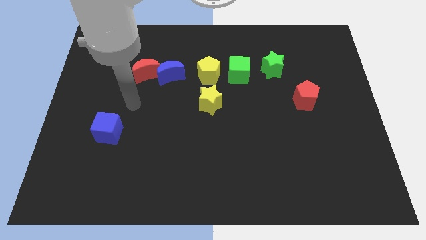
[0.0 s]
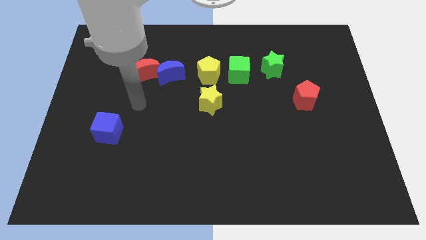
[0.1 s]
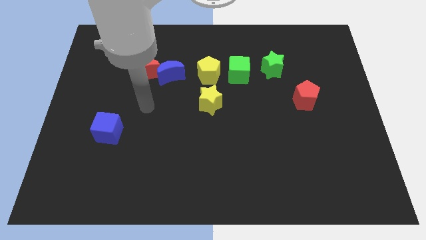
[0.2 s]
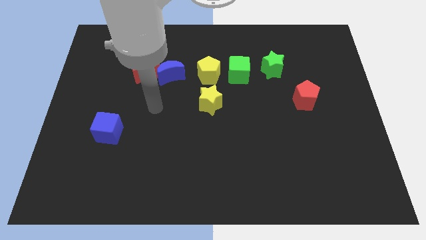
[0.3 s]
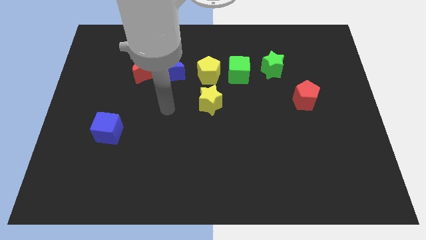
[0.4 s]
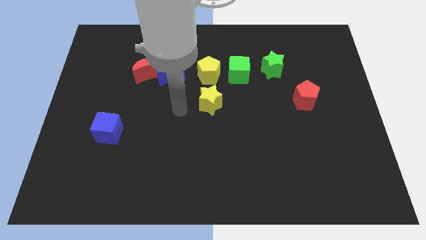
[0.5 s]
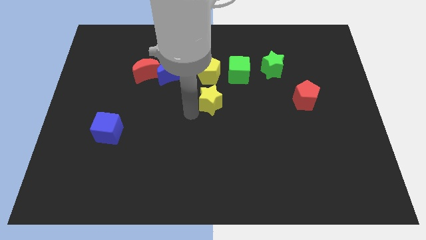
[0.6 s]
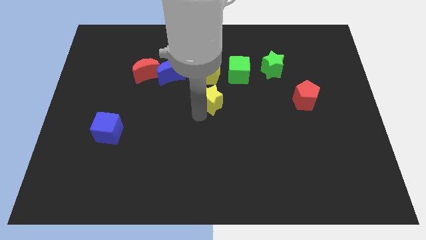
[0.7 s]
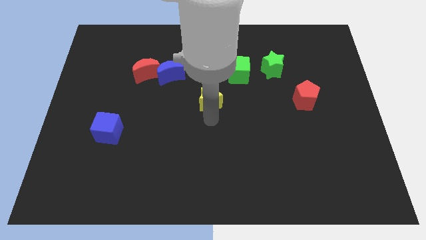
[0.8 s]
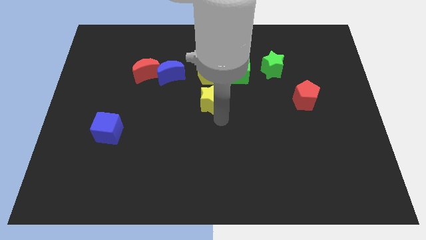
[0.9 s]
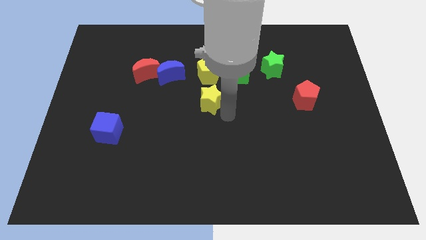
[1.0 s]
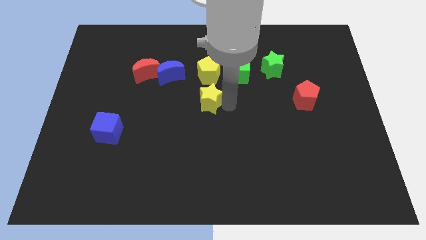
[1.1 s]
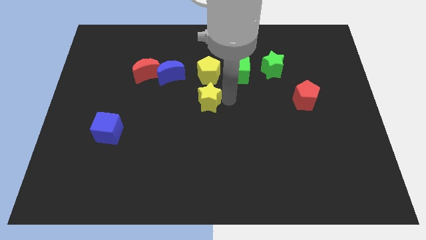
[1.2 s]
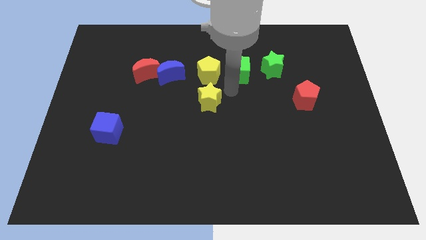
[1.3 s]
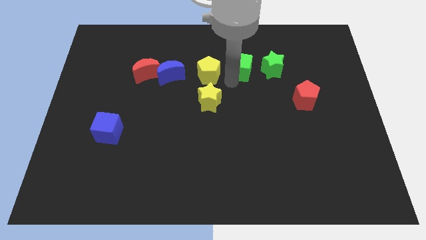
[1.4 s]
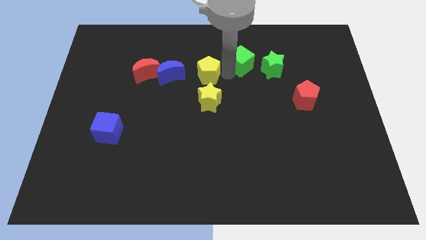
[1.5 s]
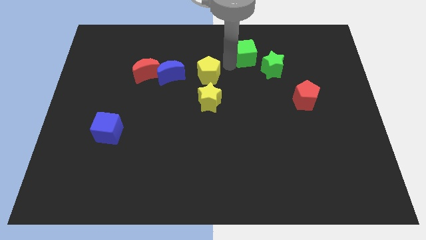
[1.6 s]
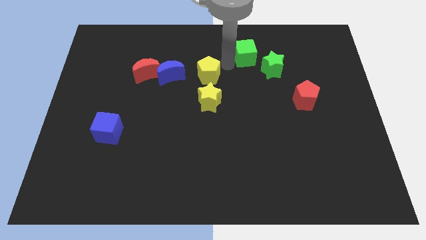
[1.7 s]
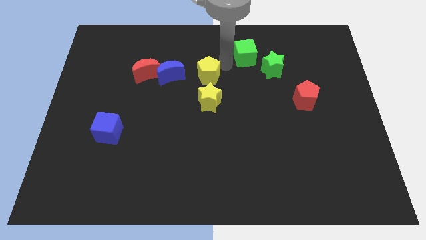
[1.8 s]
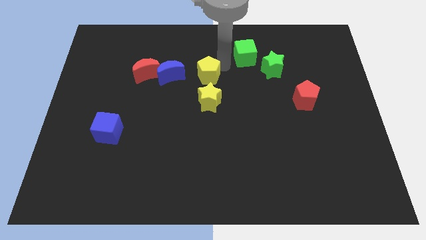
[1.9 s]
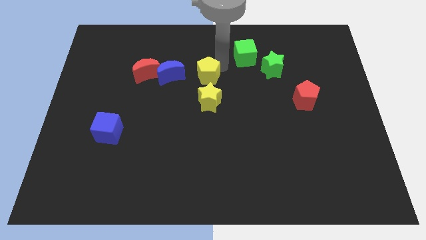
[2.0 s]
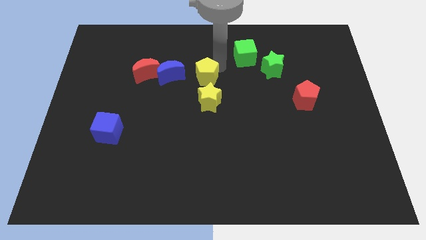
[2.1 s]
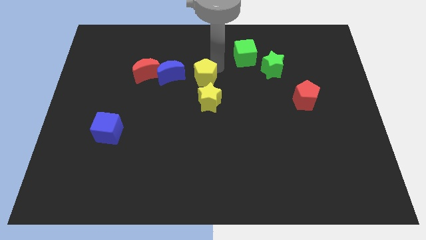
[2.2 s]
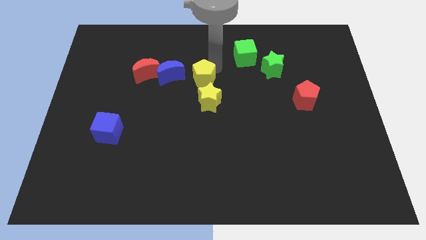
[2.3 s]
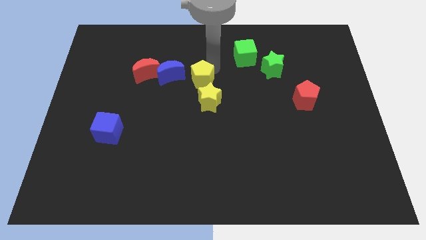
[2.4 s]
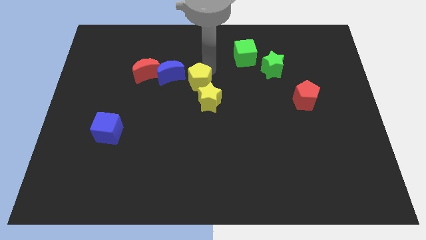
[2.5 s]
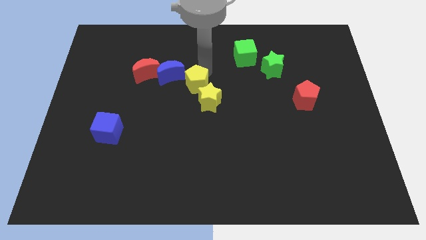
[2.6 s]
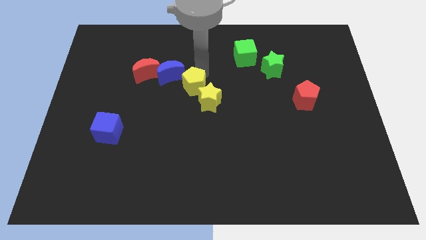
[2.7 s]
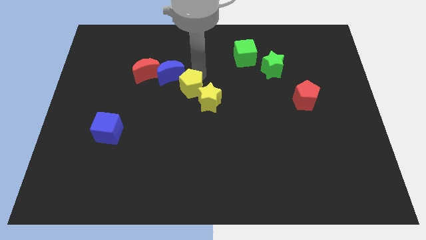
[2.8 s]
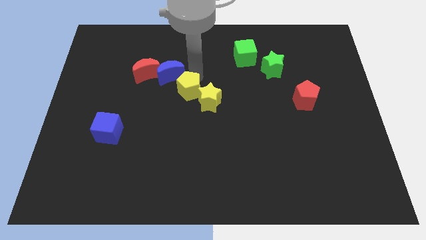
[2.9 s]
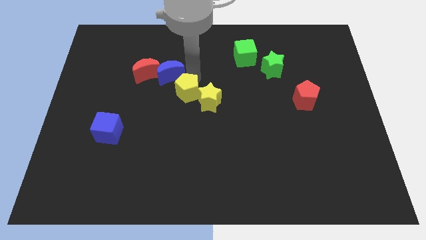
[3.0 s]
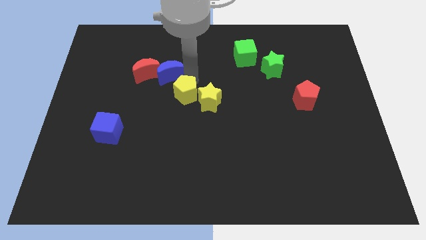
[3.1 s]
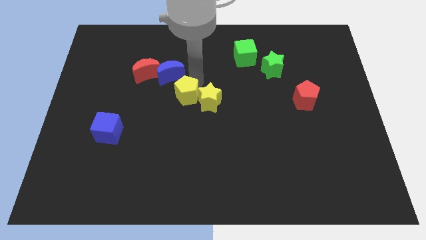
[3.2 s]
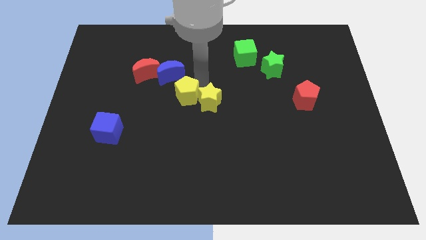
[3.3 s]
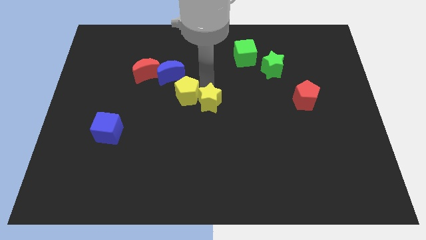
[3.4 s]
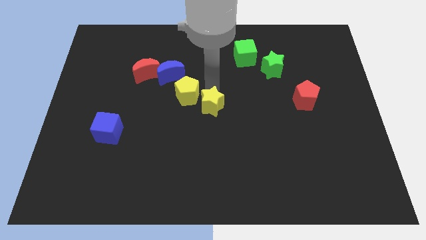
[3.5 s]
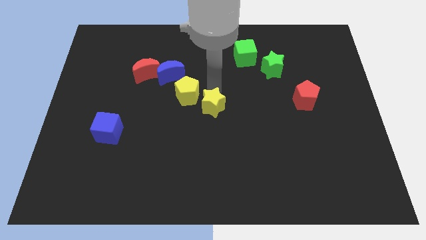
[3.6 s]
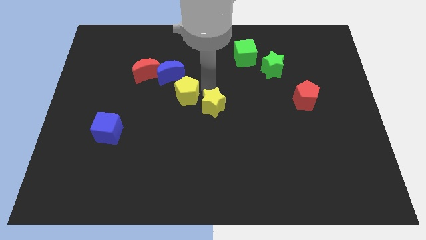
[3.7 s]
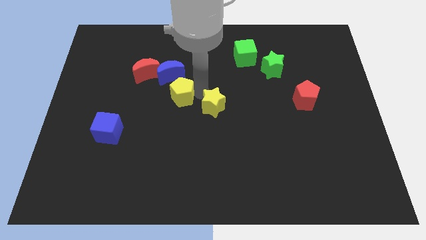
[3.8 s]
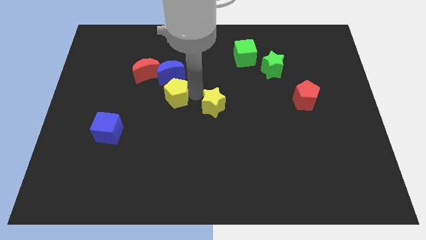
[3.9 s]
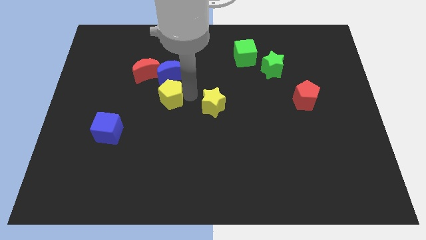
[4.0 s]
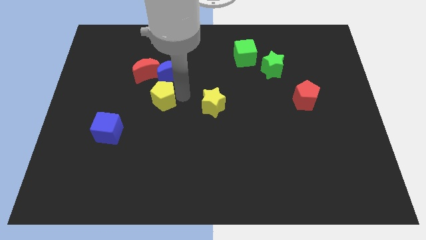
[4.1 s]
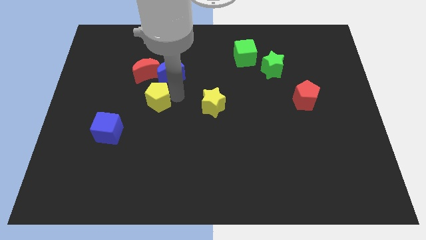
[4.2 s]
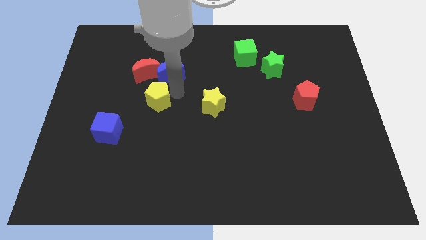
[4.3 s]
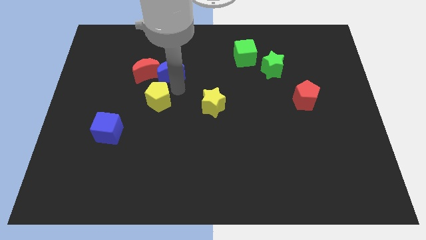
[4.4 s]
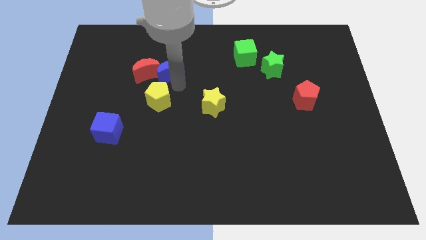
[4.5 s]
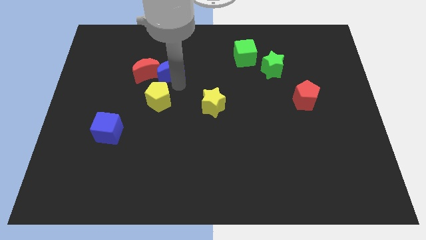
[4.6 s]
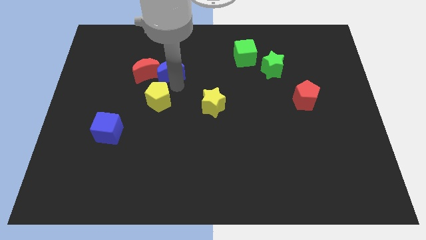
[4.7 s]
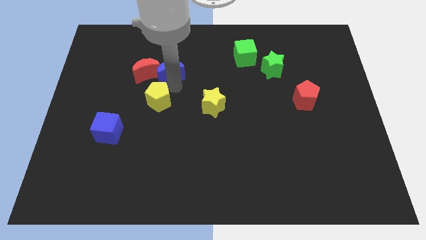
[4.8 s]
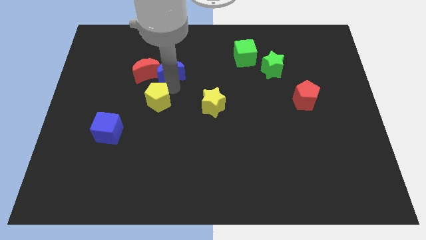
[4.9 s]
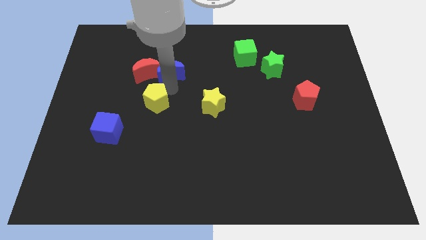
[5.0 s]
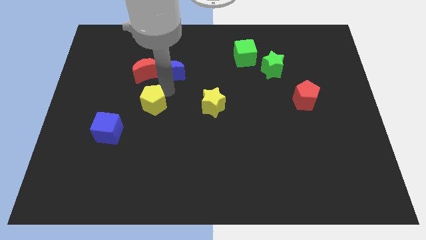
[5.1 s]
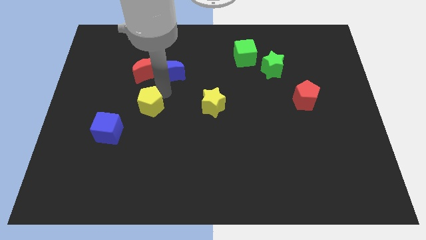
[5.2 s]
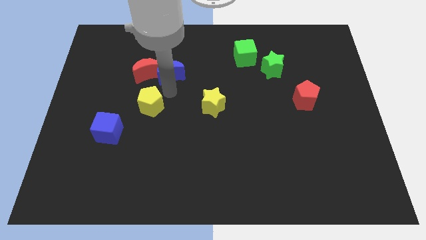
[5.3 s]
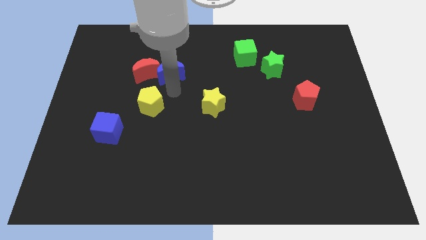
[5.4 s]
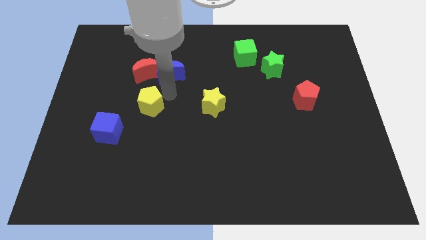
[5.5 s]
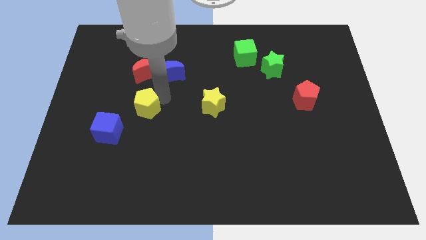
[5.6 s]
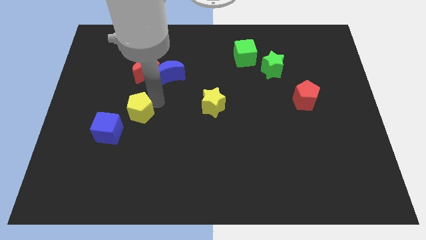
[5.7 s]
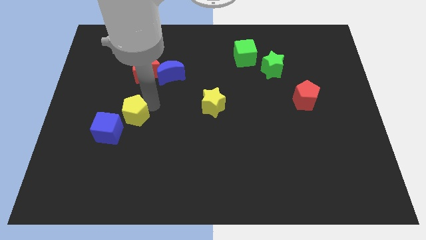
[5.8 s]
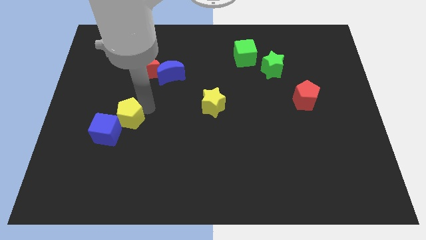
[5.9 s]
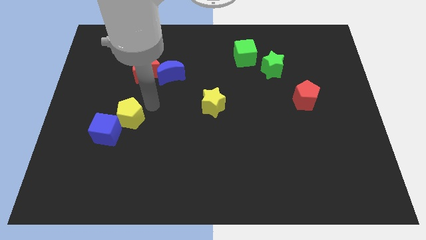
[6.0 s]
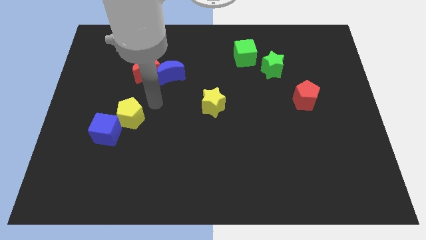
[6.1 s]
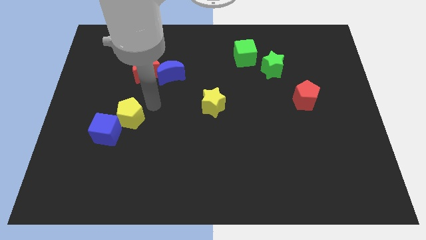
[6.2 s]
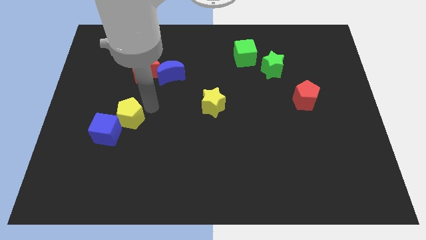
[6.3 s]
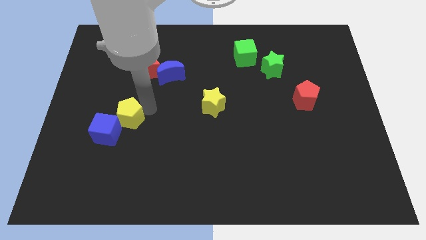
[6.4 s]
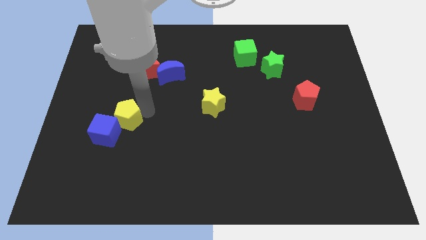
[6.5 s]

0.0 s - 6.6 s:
push the yellow pentagon next to the blue cube
